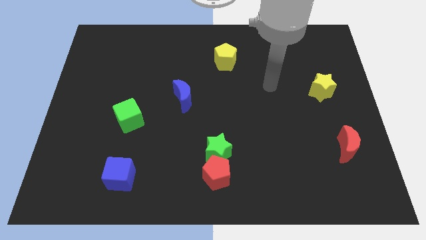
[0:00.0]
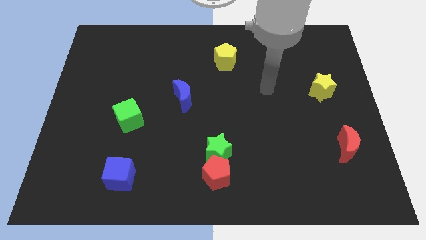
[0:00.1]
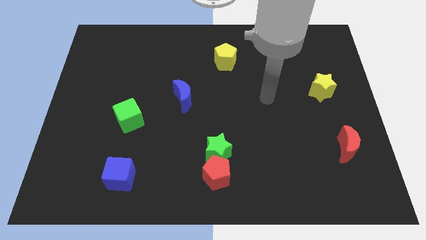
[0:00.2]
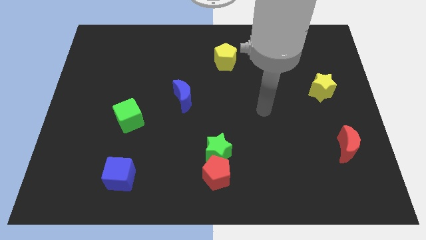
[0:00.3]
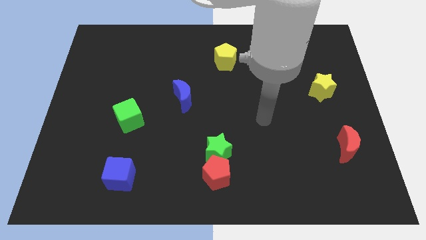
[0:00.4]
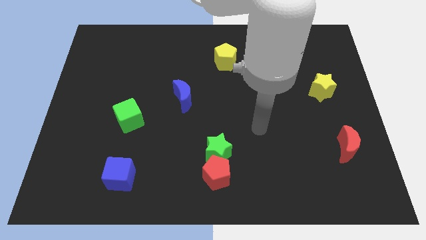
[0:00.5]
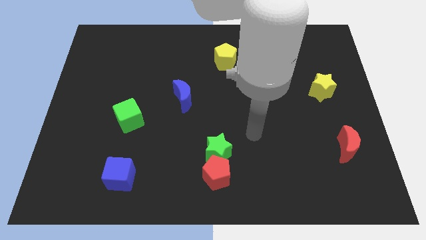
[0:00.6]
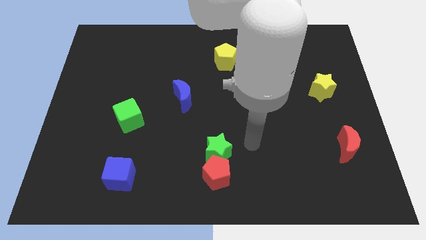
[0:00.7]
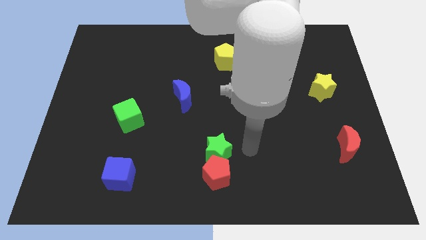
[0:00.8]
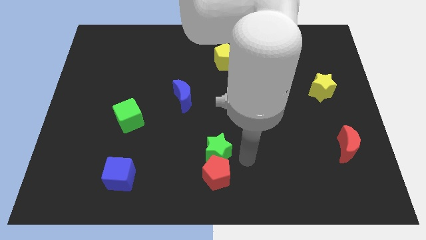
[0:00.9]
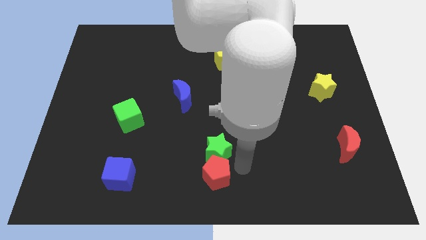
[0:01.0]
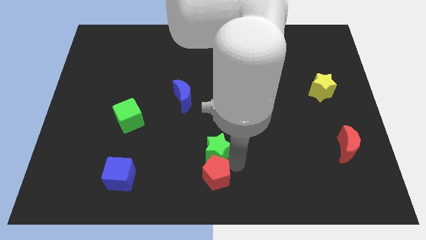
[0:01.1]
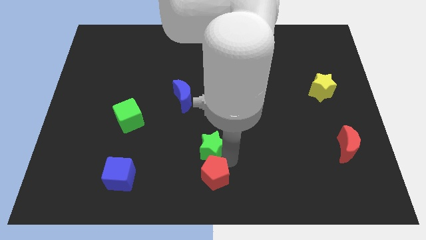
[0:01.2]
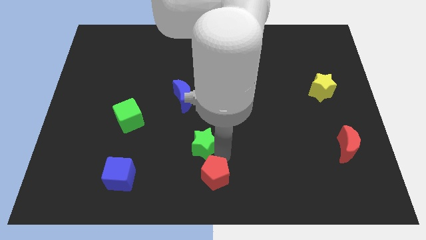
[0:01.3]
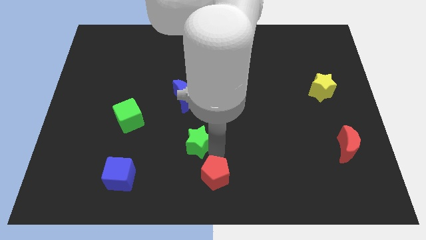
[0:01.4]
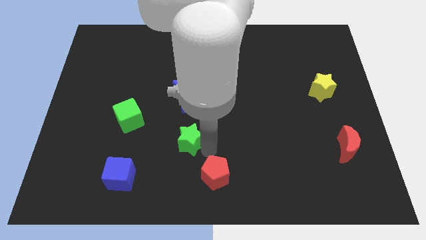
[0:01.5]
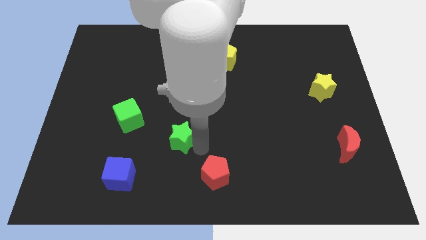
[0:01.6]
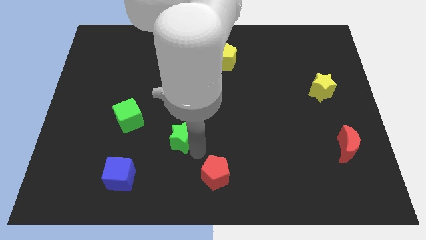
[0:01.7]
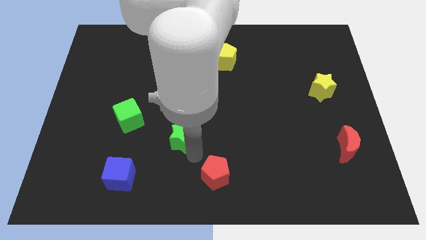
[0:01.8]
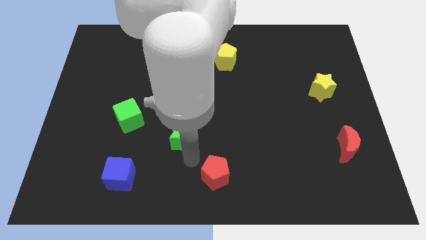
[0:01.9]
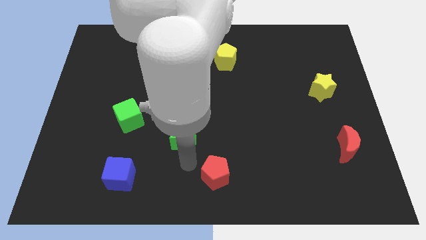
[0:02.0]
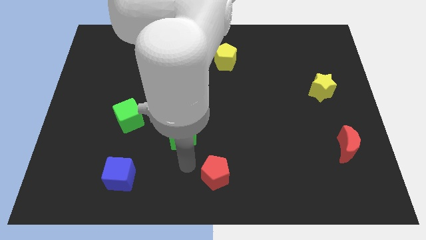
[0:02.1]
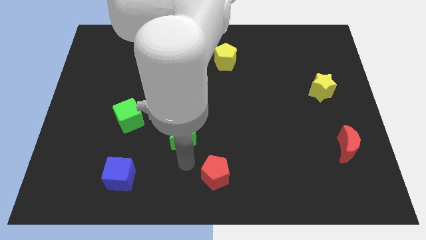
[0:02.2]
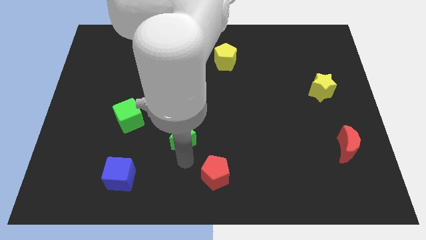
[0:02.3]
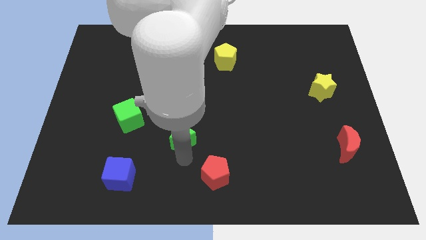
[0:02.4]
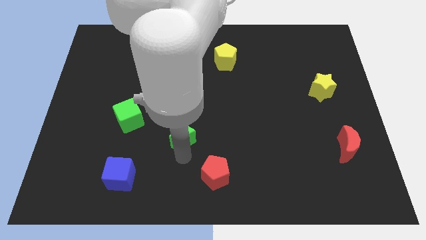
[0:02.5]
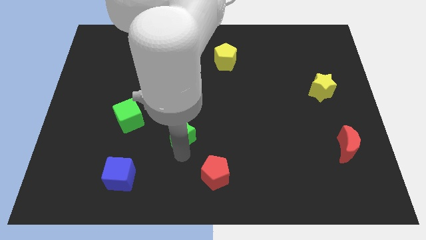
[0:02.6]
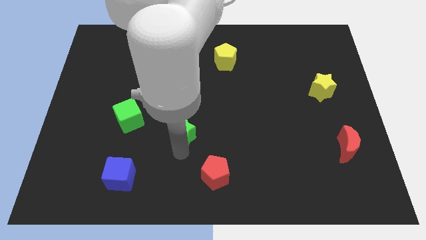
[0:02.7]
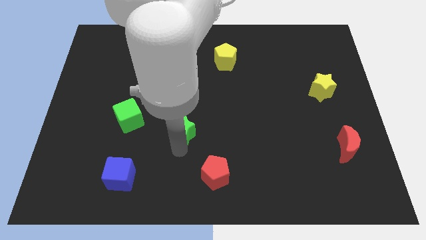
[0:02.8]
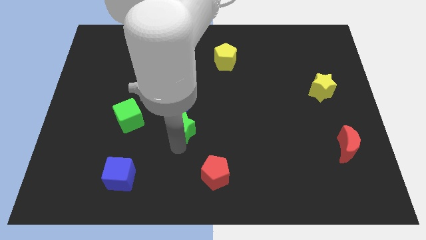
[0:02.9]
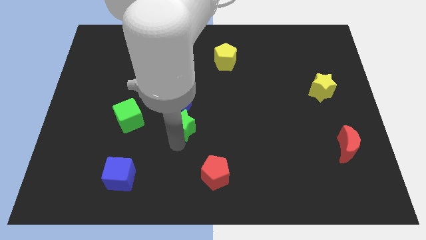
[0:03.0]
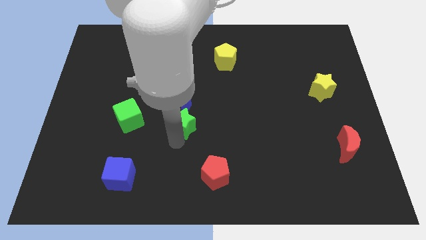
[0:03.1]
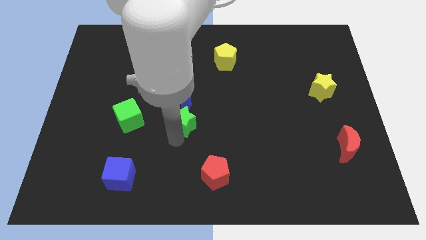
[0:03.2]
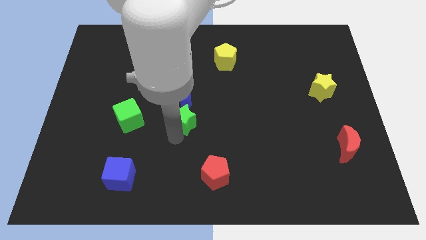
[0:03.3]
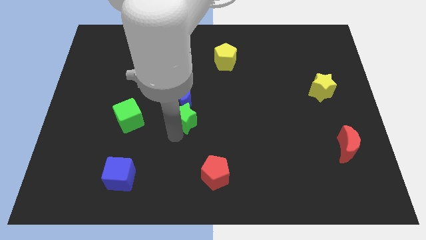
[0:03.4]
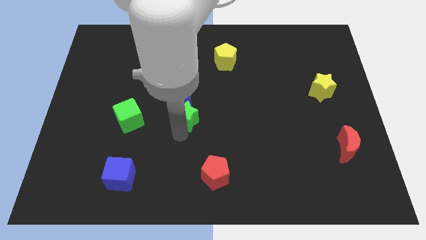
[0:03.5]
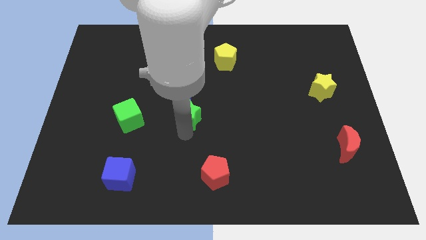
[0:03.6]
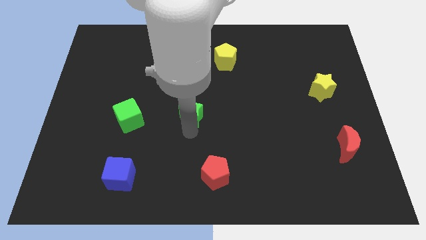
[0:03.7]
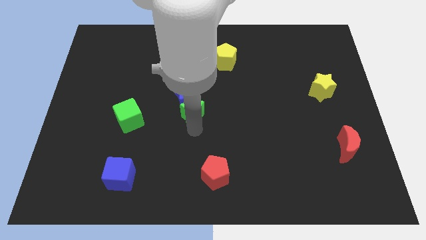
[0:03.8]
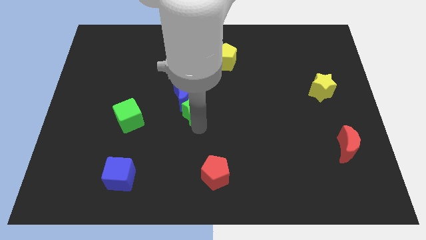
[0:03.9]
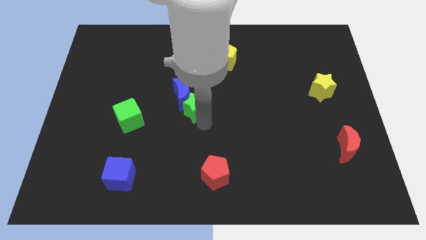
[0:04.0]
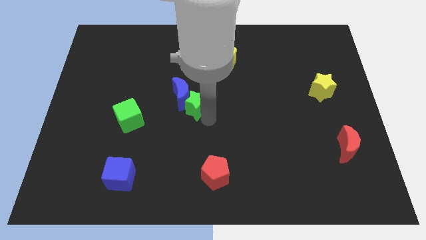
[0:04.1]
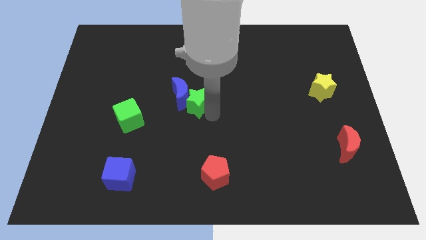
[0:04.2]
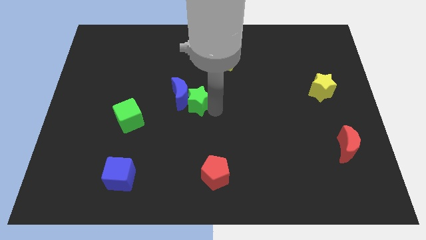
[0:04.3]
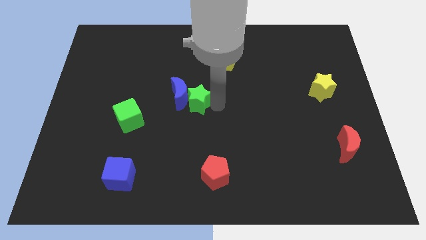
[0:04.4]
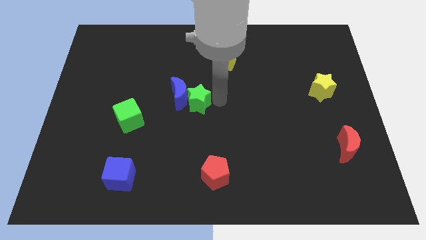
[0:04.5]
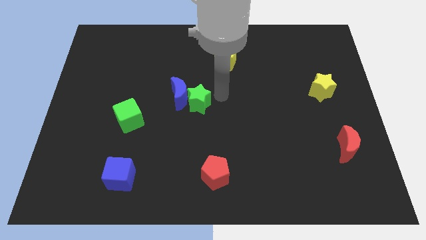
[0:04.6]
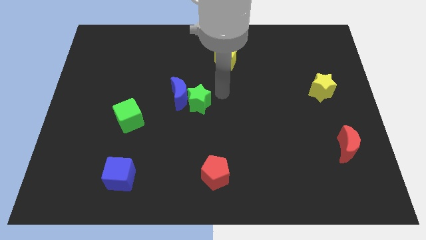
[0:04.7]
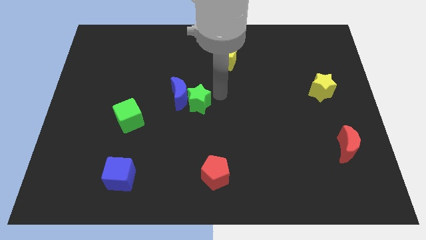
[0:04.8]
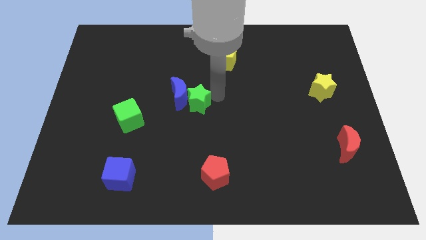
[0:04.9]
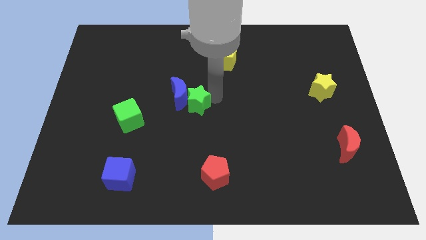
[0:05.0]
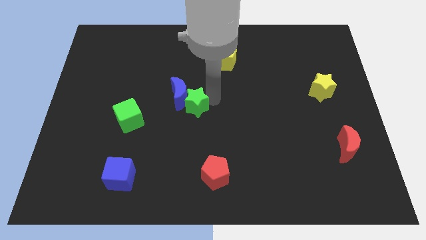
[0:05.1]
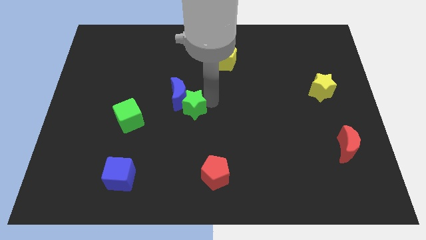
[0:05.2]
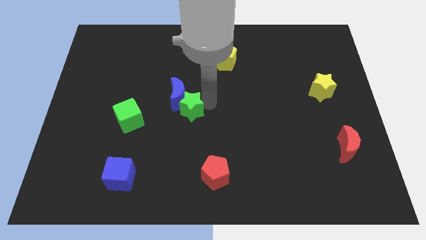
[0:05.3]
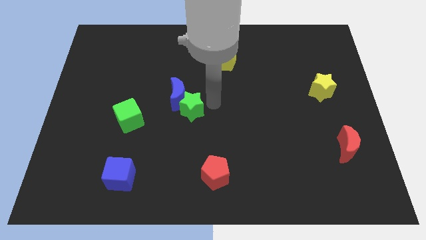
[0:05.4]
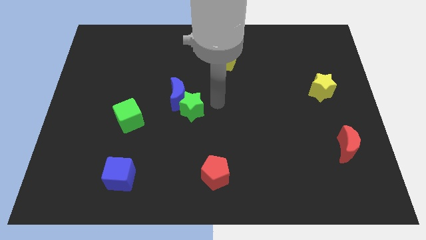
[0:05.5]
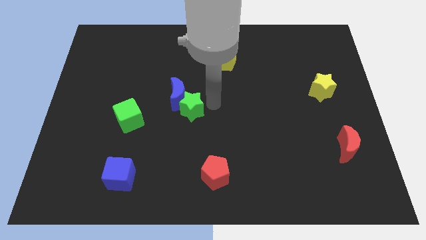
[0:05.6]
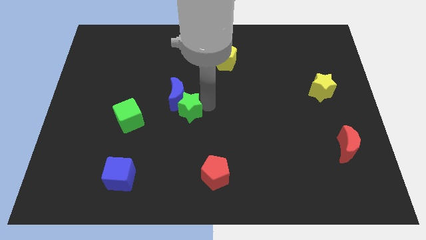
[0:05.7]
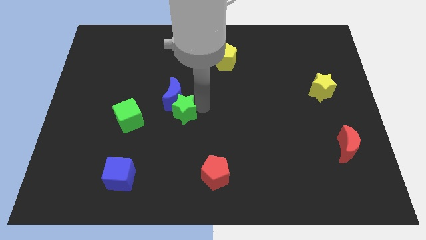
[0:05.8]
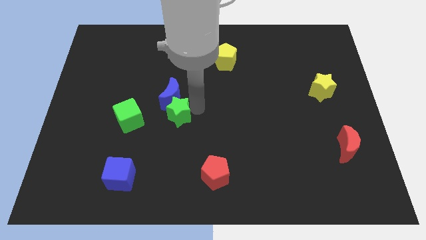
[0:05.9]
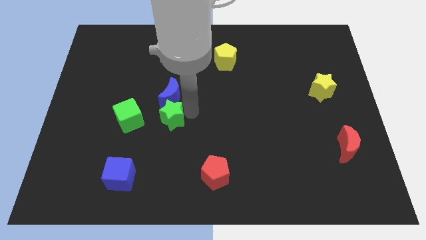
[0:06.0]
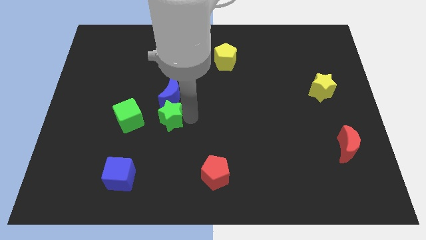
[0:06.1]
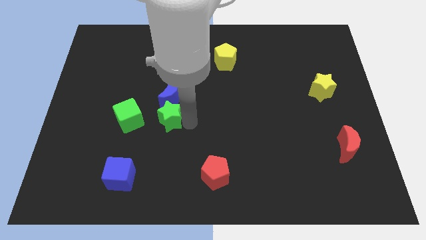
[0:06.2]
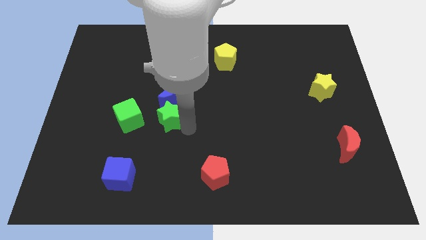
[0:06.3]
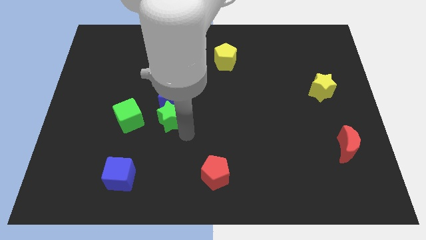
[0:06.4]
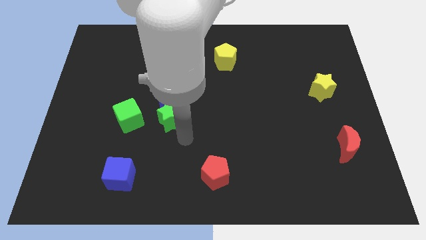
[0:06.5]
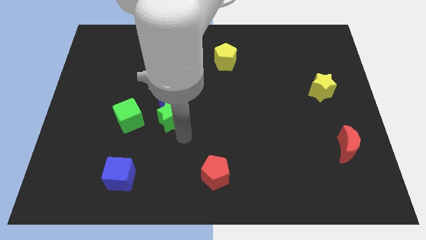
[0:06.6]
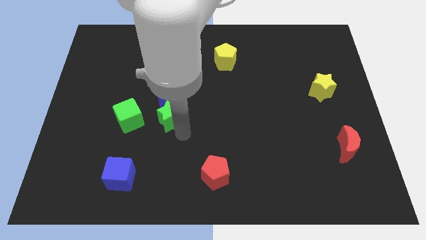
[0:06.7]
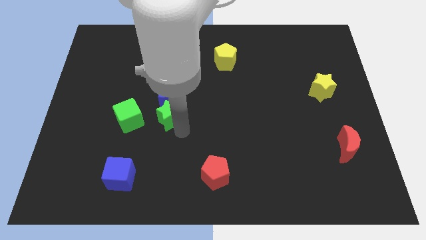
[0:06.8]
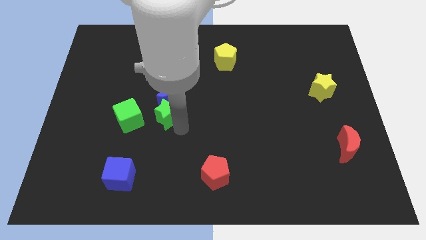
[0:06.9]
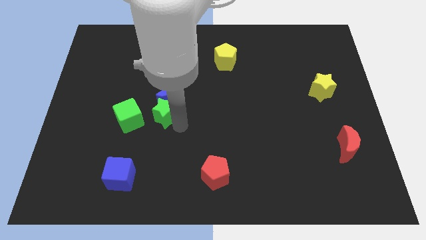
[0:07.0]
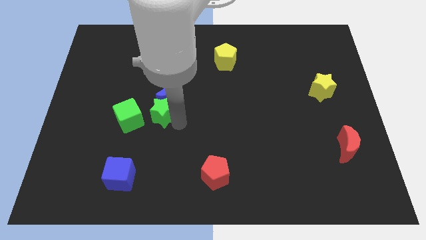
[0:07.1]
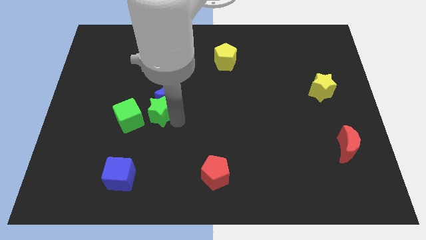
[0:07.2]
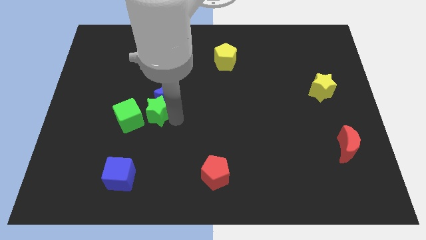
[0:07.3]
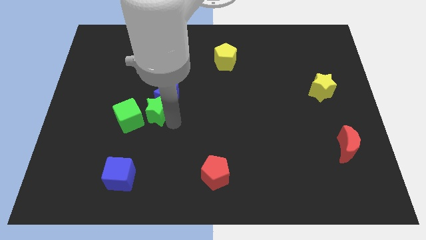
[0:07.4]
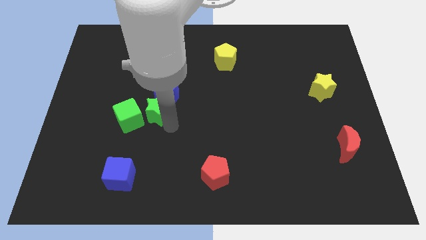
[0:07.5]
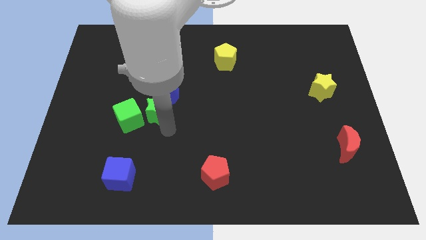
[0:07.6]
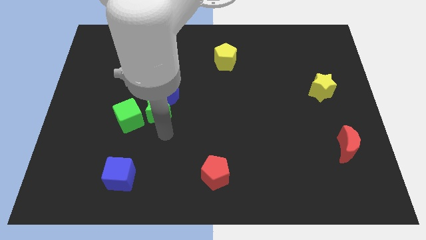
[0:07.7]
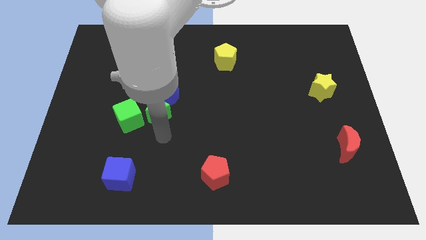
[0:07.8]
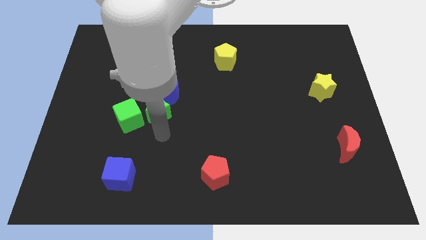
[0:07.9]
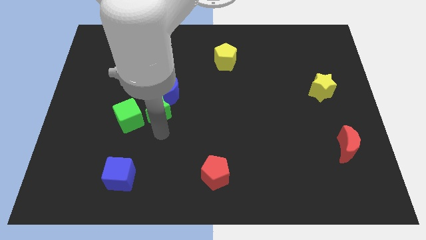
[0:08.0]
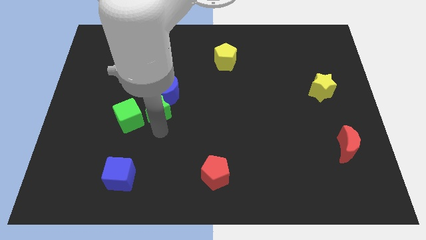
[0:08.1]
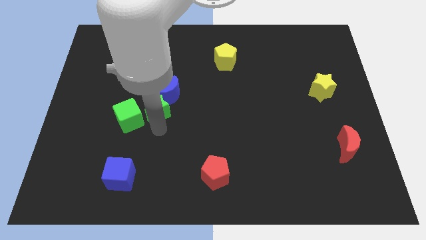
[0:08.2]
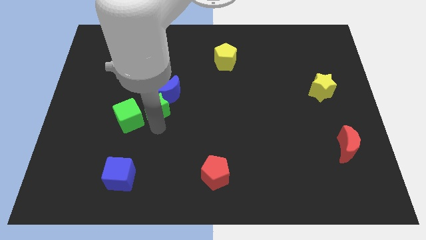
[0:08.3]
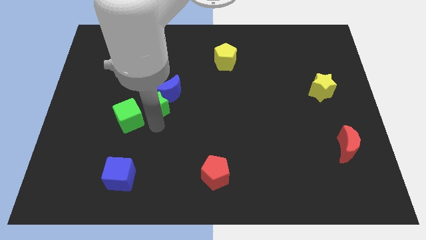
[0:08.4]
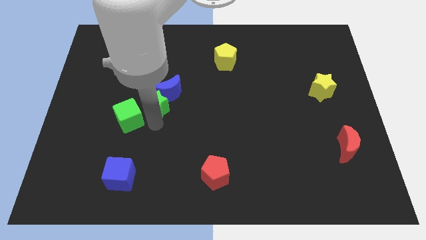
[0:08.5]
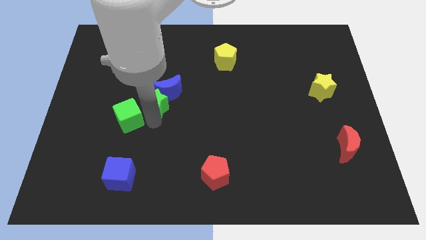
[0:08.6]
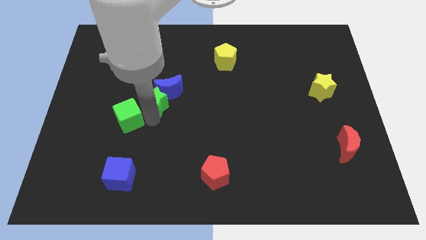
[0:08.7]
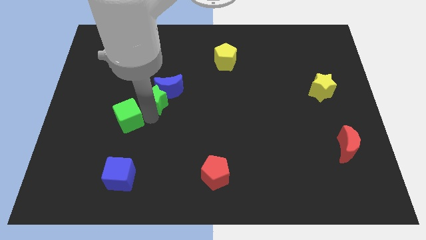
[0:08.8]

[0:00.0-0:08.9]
slide the green star upwards and to the left diagonally
